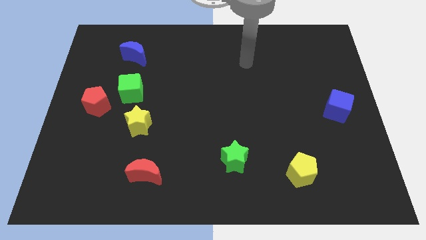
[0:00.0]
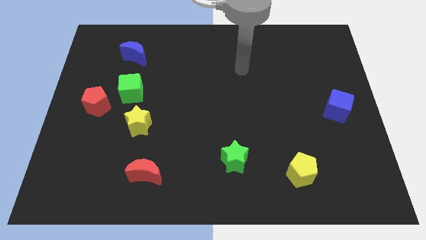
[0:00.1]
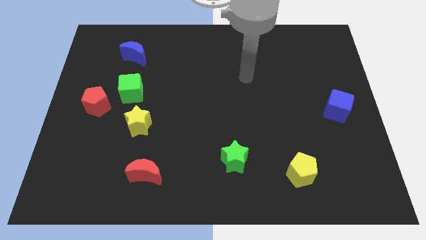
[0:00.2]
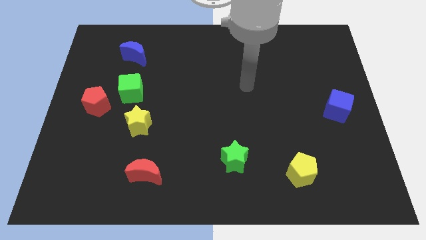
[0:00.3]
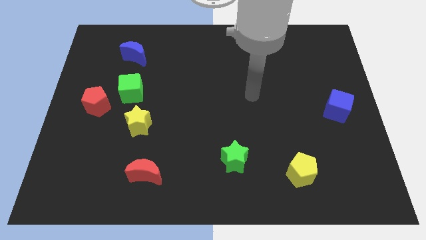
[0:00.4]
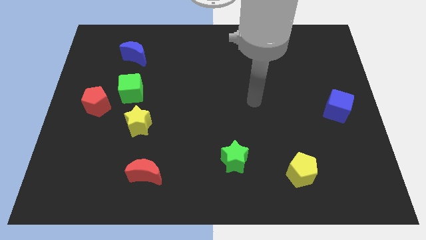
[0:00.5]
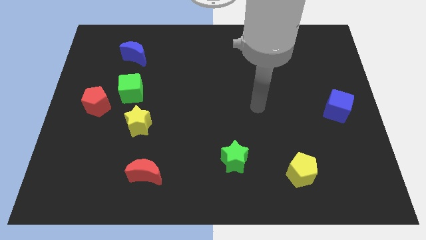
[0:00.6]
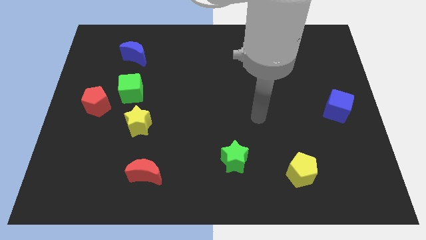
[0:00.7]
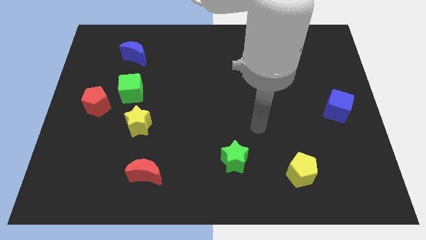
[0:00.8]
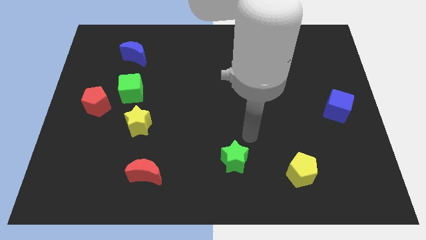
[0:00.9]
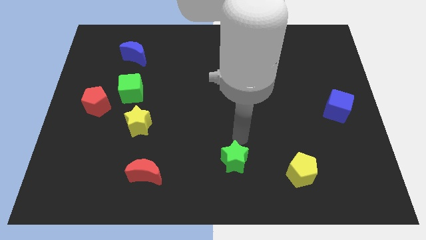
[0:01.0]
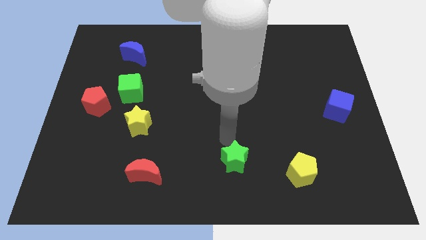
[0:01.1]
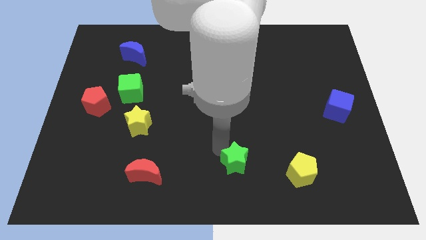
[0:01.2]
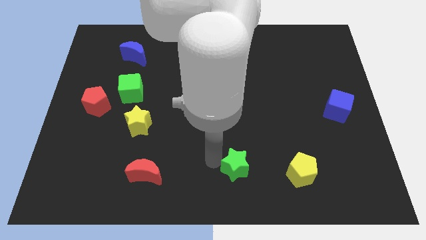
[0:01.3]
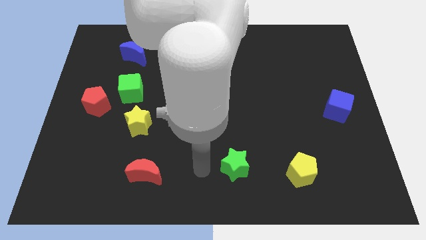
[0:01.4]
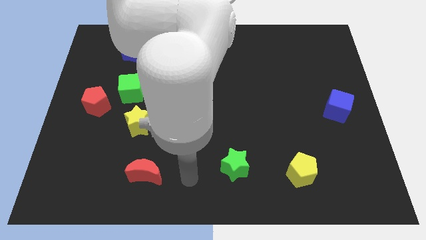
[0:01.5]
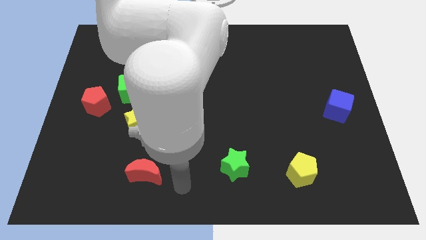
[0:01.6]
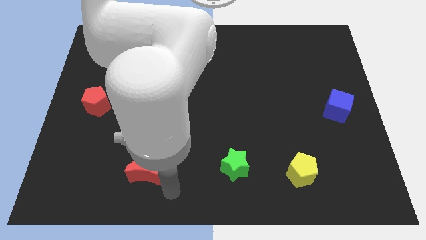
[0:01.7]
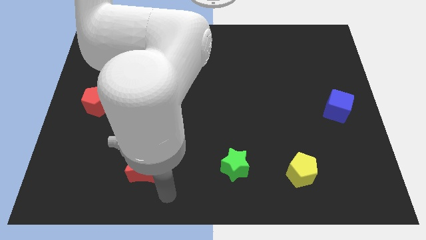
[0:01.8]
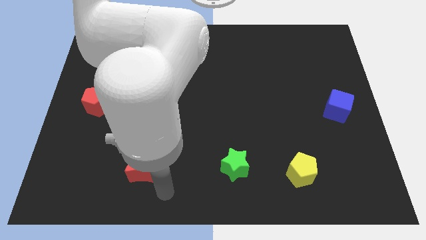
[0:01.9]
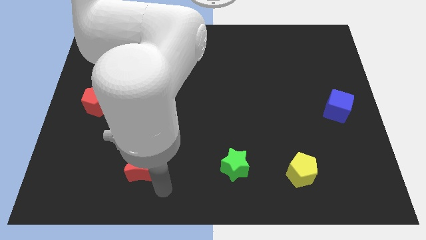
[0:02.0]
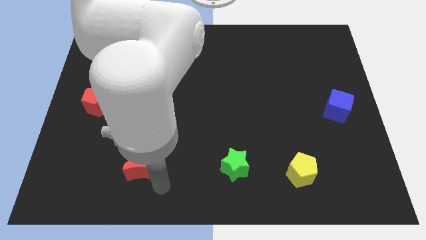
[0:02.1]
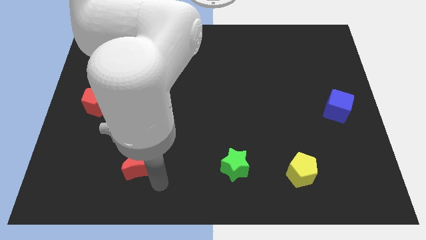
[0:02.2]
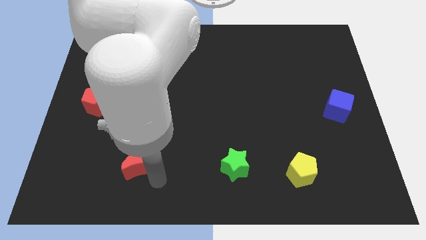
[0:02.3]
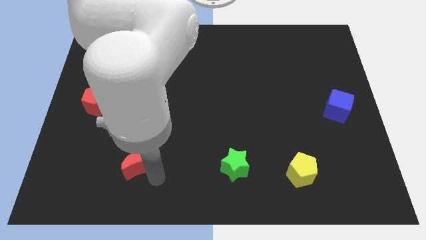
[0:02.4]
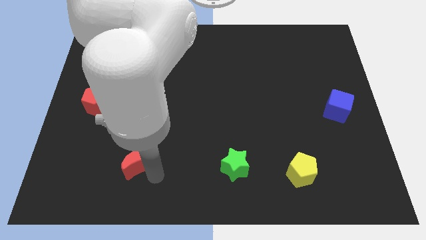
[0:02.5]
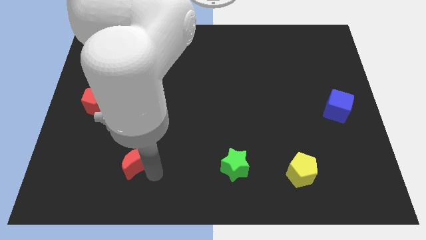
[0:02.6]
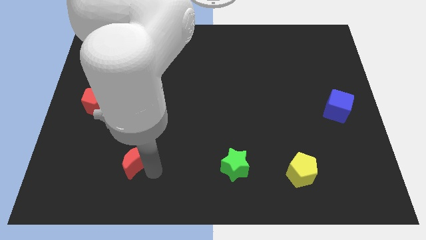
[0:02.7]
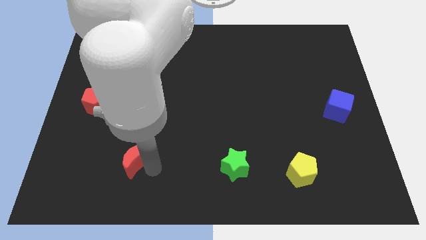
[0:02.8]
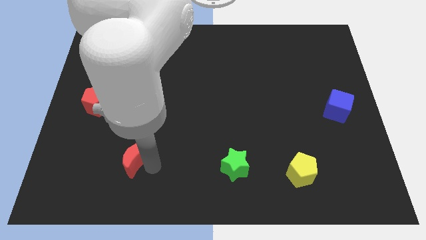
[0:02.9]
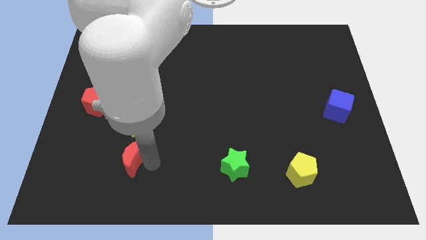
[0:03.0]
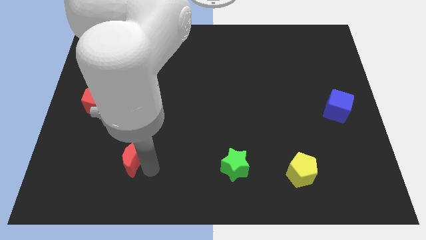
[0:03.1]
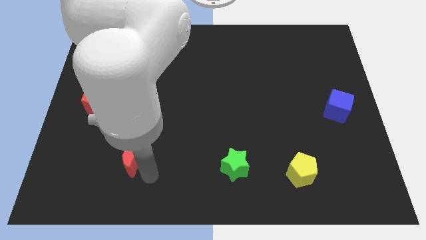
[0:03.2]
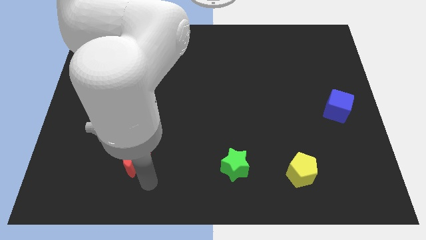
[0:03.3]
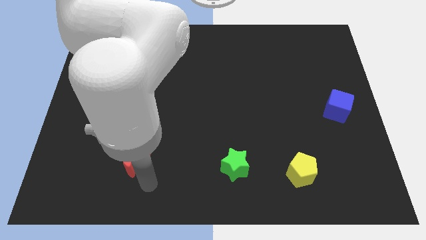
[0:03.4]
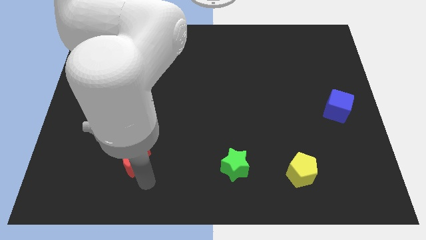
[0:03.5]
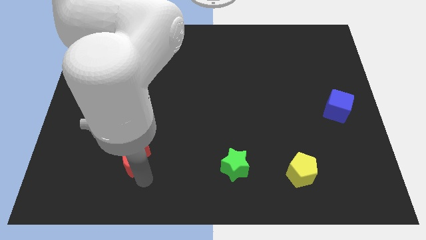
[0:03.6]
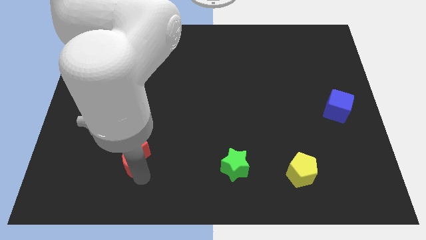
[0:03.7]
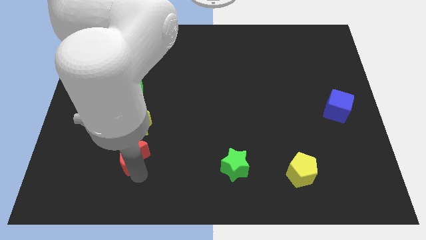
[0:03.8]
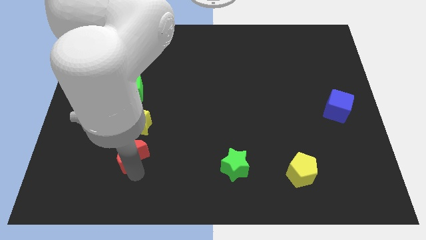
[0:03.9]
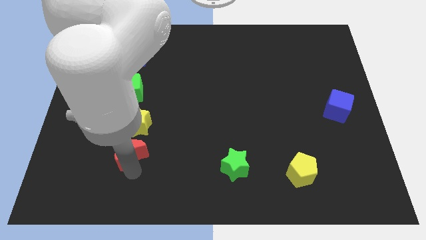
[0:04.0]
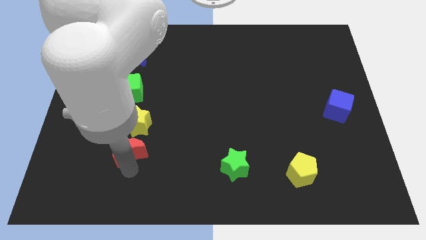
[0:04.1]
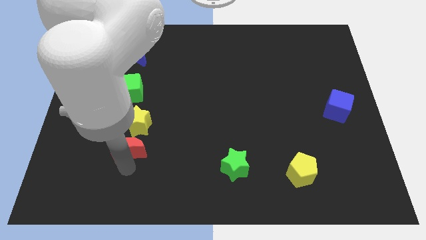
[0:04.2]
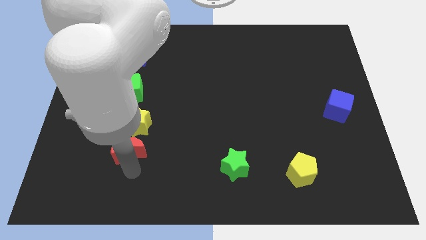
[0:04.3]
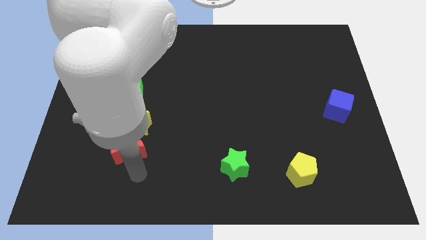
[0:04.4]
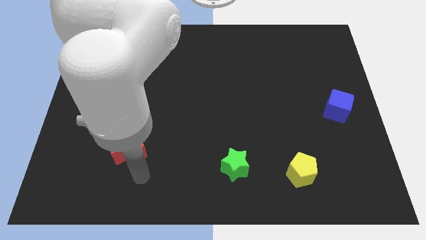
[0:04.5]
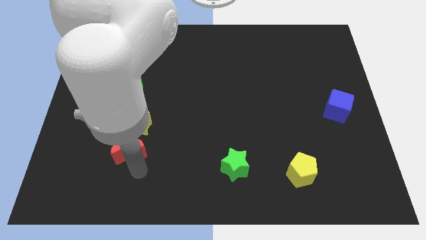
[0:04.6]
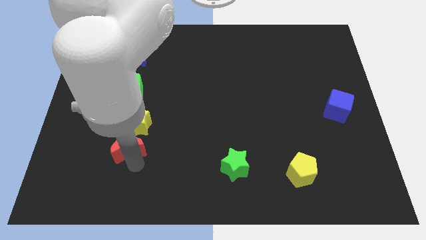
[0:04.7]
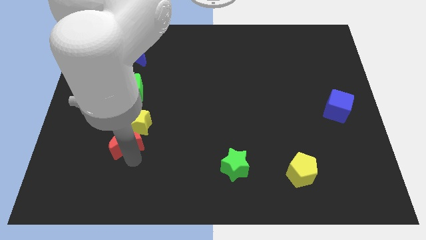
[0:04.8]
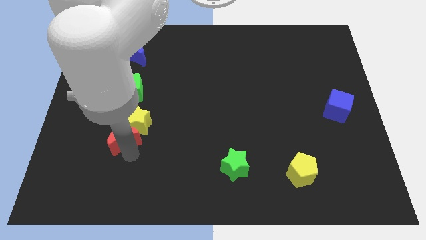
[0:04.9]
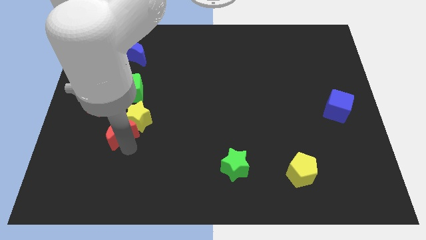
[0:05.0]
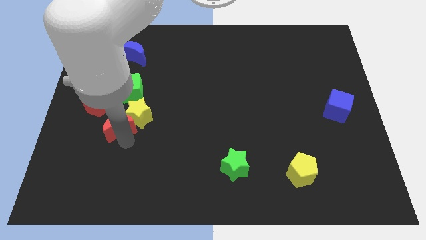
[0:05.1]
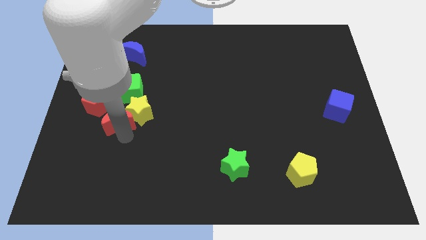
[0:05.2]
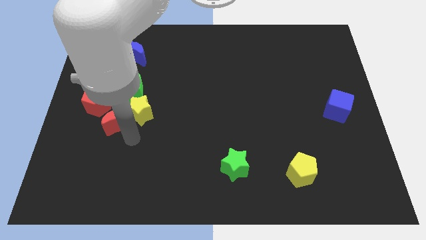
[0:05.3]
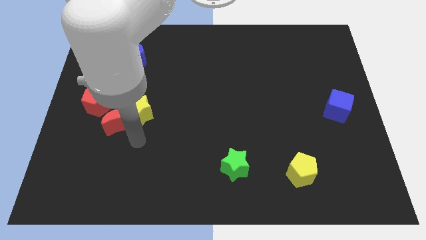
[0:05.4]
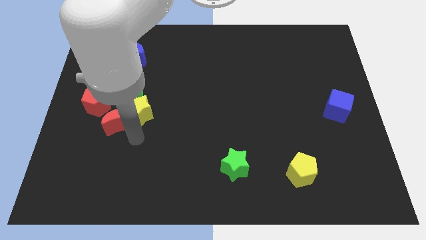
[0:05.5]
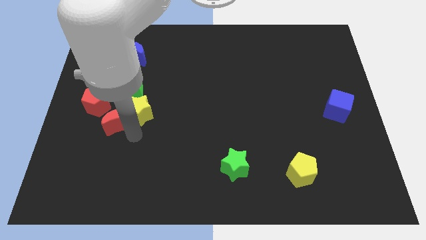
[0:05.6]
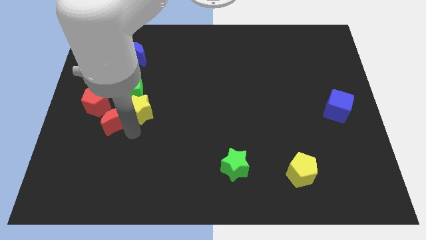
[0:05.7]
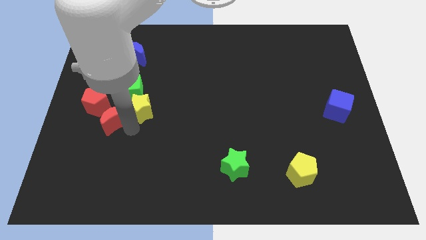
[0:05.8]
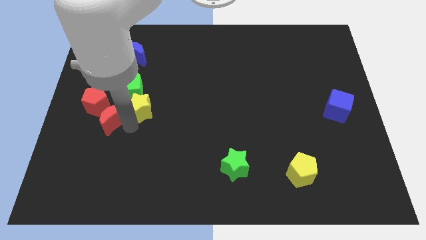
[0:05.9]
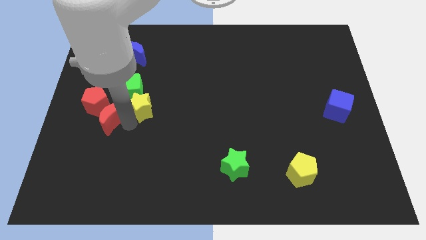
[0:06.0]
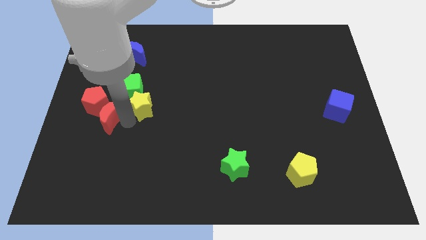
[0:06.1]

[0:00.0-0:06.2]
push the red moon close to the red pentagon

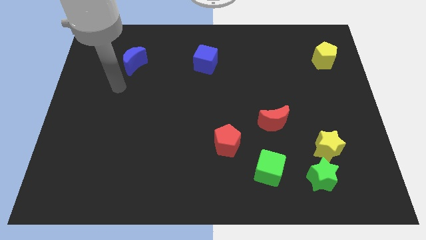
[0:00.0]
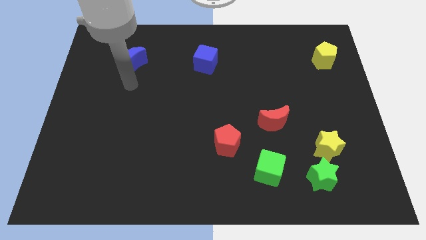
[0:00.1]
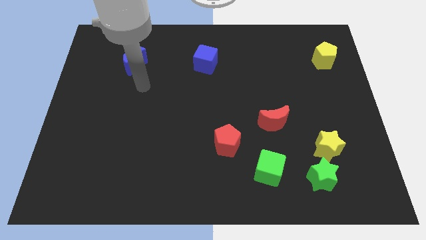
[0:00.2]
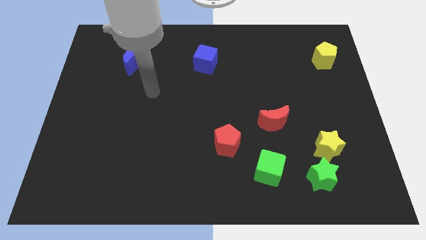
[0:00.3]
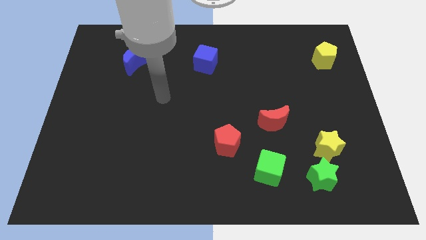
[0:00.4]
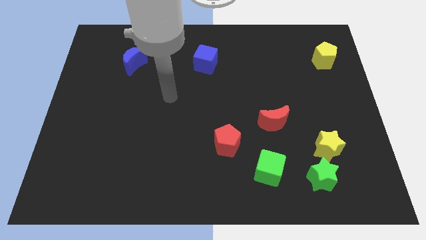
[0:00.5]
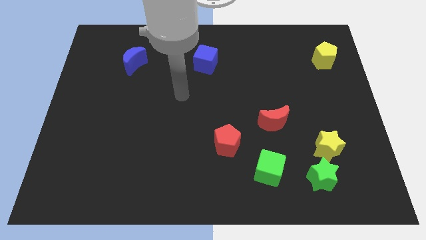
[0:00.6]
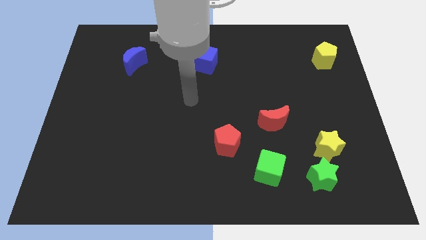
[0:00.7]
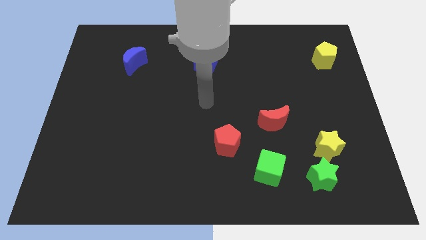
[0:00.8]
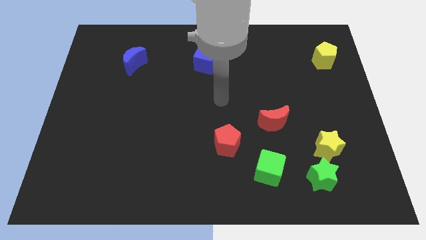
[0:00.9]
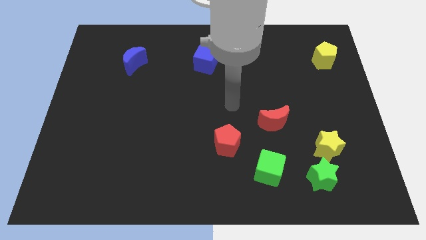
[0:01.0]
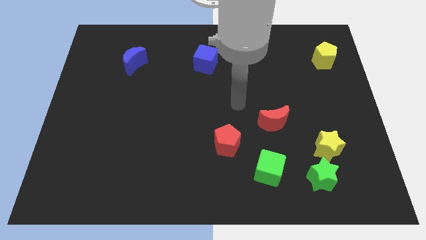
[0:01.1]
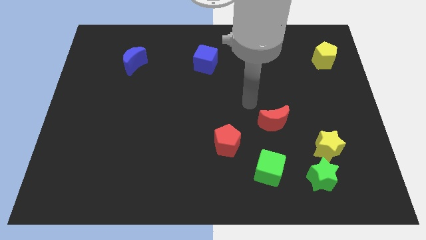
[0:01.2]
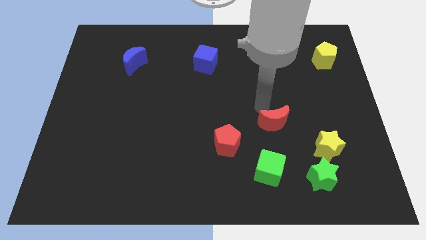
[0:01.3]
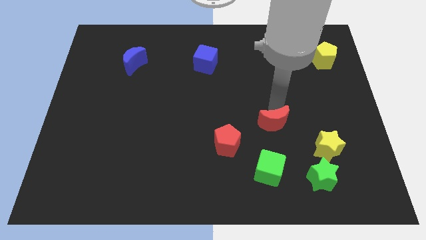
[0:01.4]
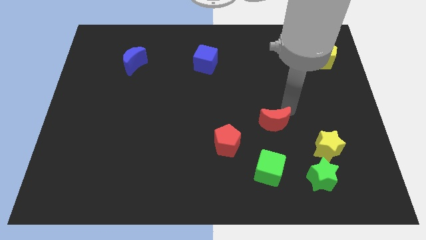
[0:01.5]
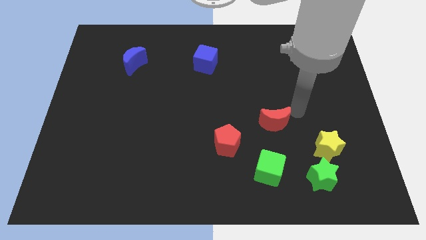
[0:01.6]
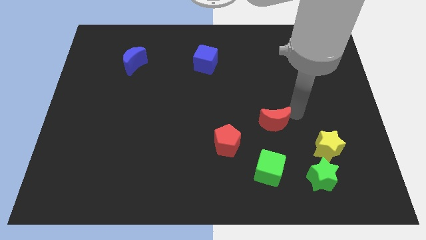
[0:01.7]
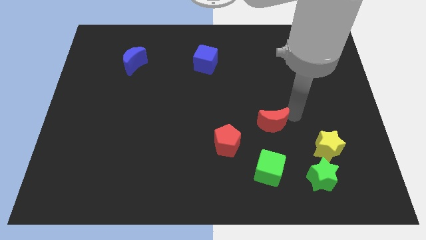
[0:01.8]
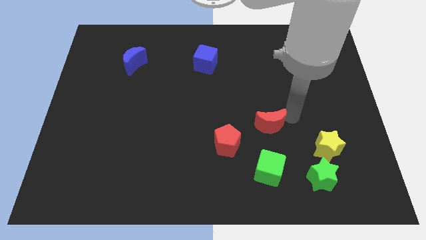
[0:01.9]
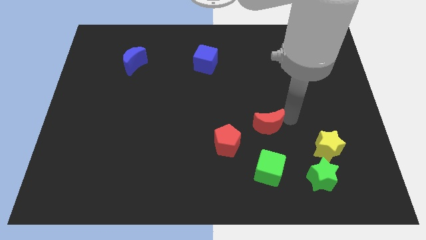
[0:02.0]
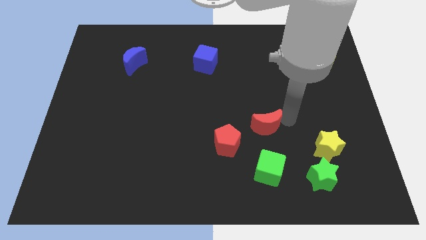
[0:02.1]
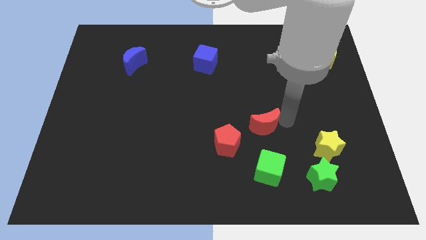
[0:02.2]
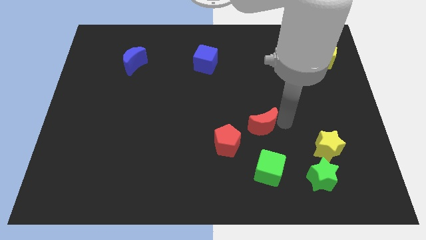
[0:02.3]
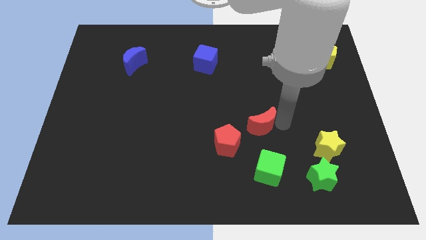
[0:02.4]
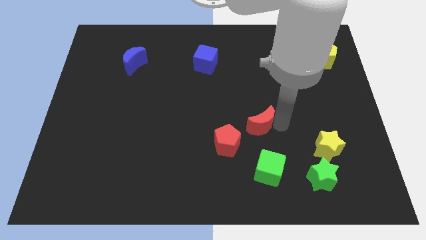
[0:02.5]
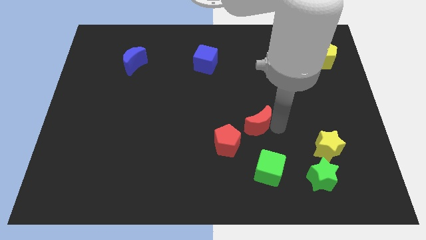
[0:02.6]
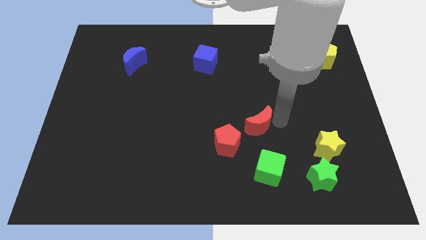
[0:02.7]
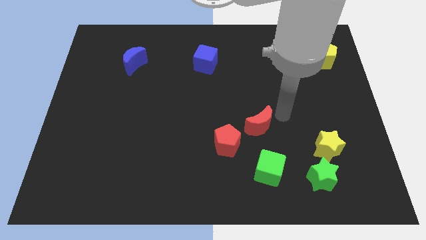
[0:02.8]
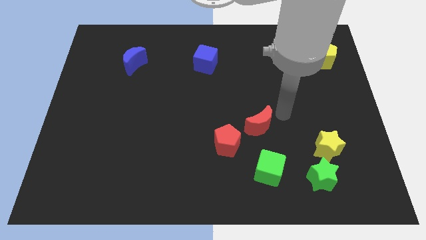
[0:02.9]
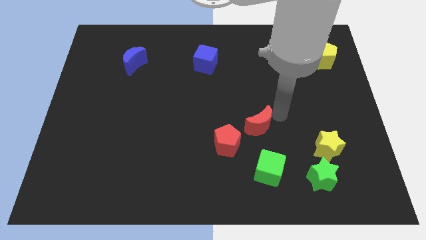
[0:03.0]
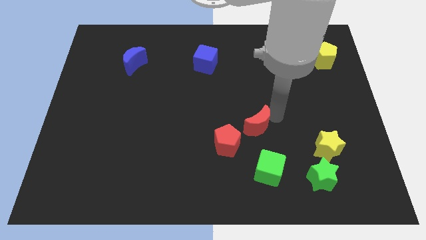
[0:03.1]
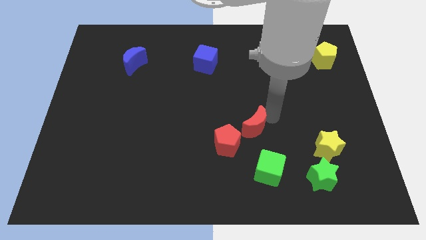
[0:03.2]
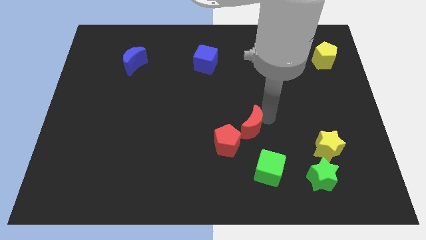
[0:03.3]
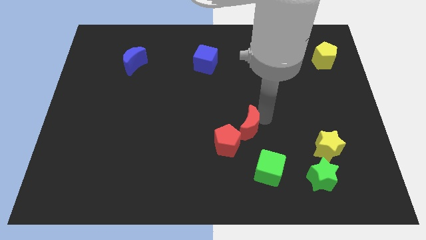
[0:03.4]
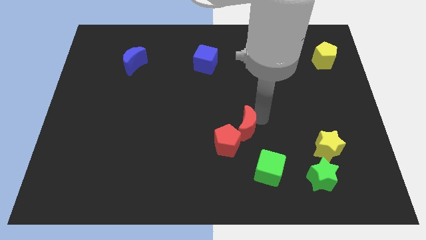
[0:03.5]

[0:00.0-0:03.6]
push the red moon to the red pentagon
